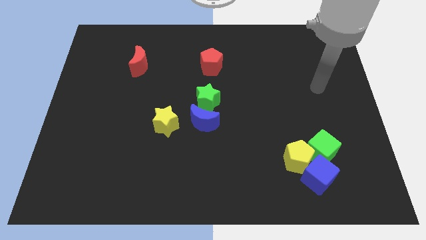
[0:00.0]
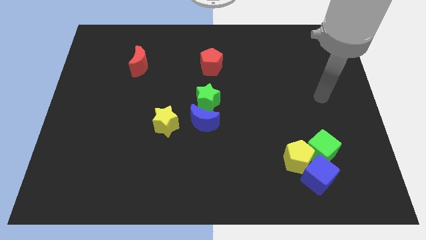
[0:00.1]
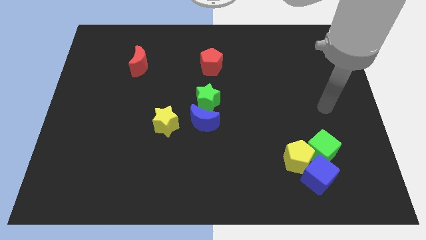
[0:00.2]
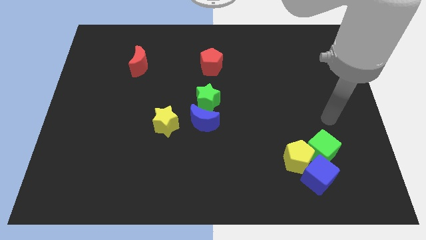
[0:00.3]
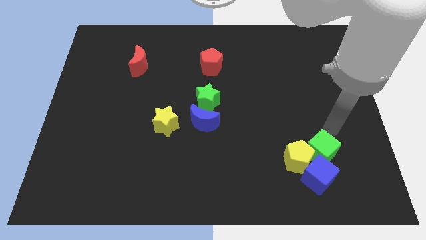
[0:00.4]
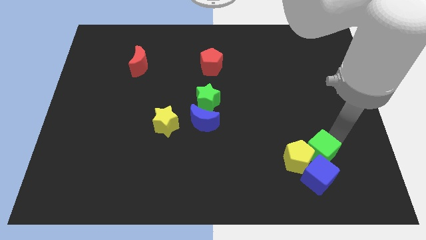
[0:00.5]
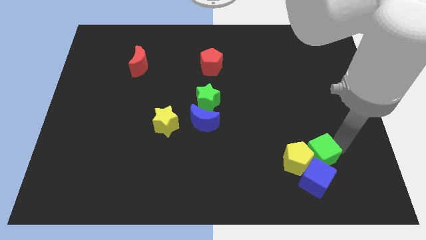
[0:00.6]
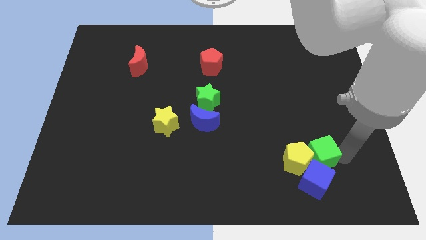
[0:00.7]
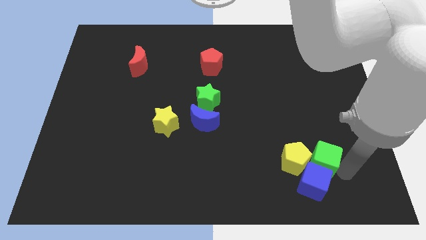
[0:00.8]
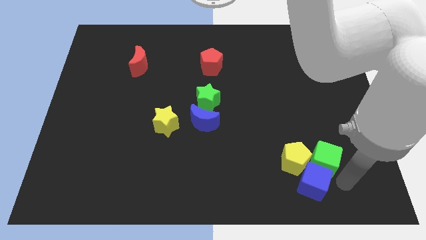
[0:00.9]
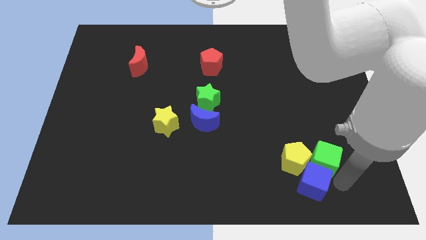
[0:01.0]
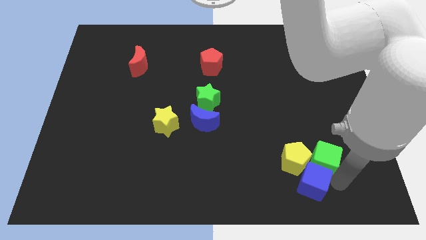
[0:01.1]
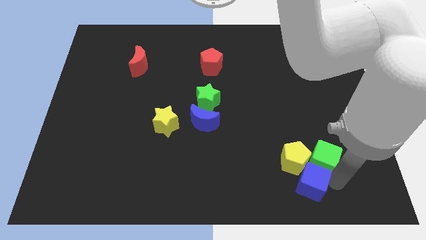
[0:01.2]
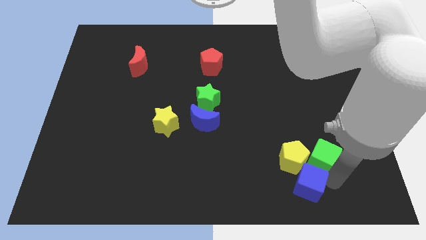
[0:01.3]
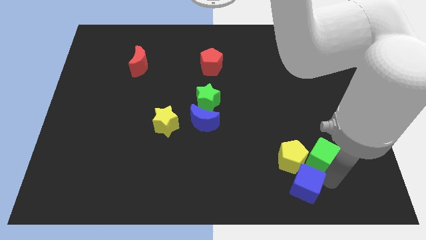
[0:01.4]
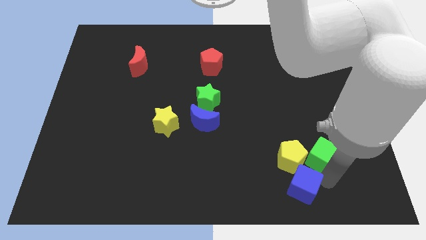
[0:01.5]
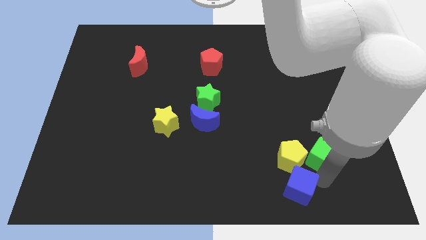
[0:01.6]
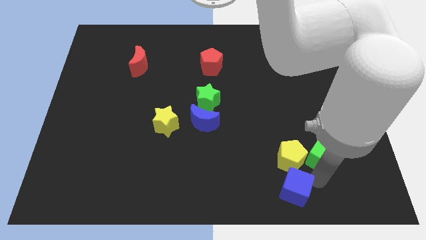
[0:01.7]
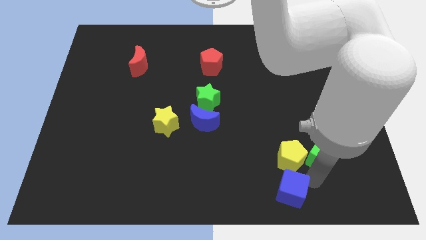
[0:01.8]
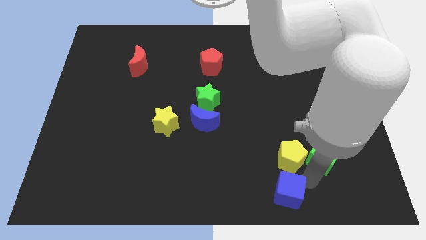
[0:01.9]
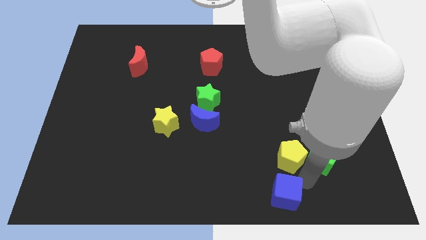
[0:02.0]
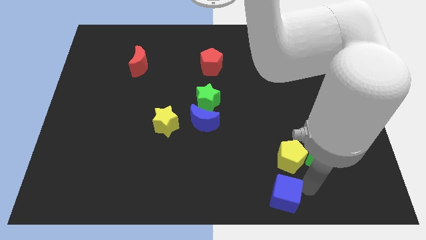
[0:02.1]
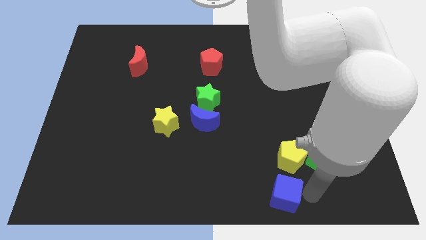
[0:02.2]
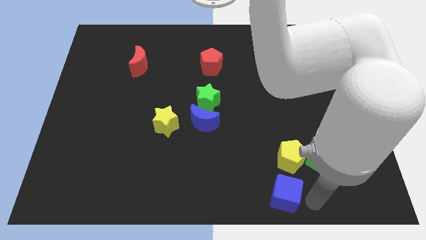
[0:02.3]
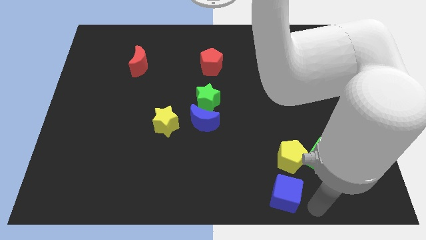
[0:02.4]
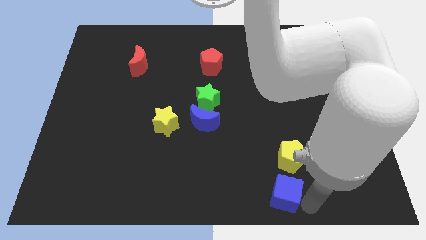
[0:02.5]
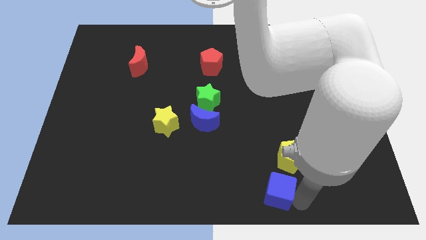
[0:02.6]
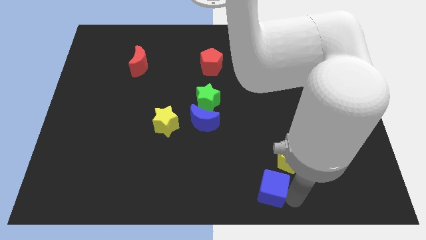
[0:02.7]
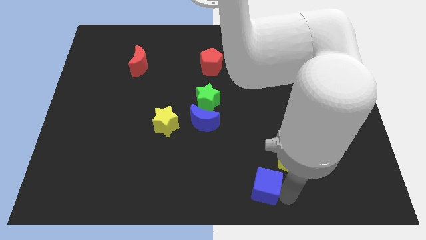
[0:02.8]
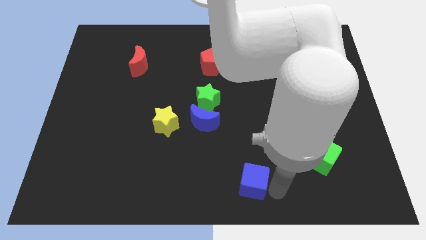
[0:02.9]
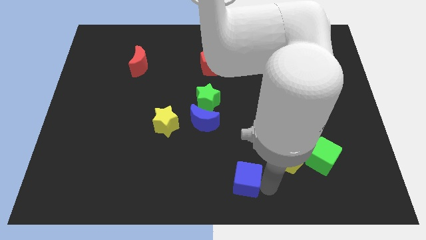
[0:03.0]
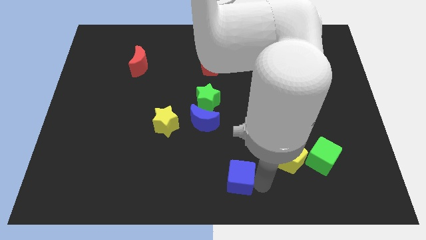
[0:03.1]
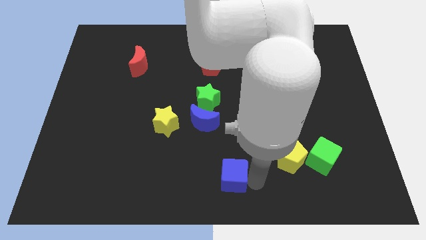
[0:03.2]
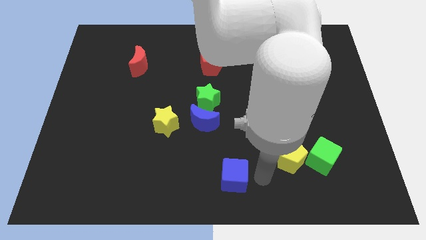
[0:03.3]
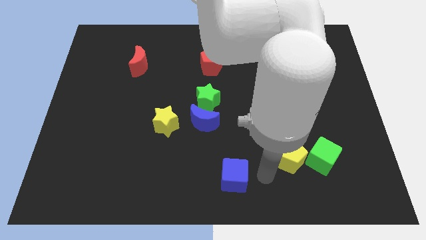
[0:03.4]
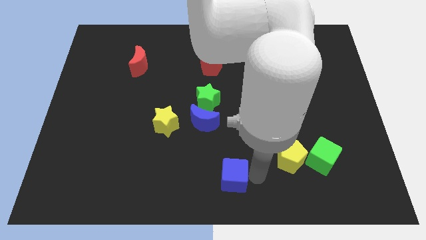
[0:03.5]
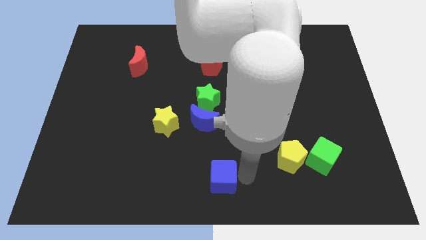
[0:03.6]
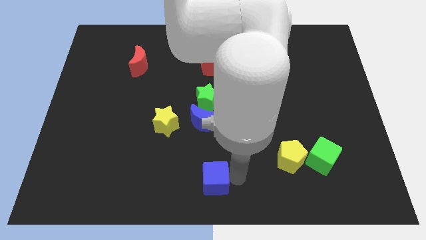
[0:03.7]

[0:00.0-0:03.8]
push the blue cube left

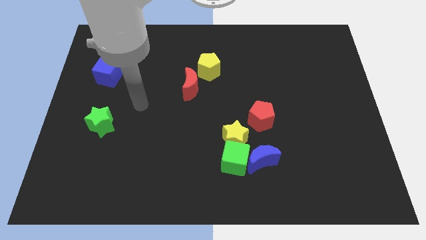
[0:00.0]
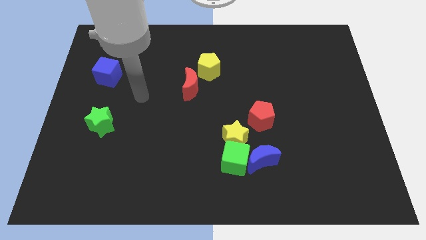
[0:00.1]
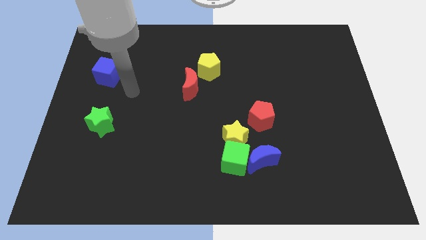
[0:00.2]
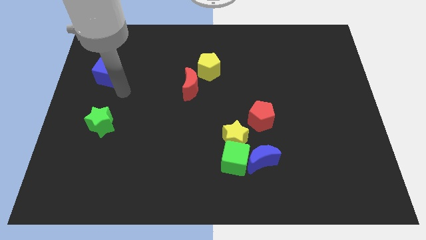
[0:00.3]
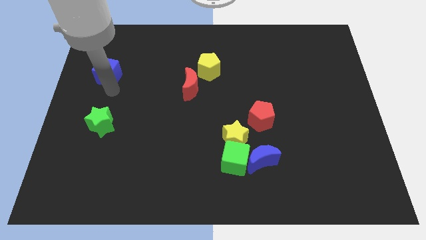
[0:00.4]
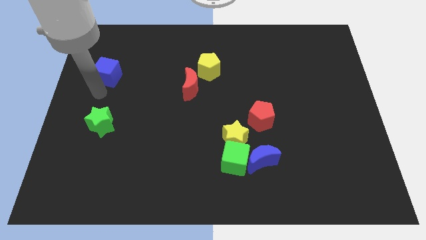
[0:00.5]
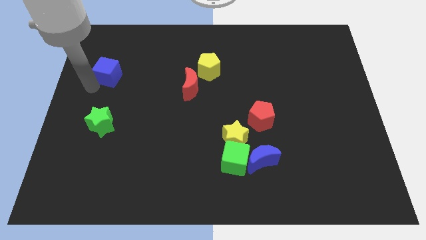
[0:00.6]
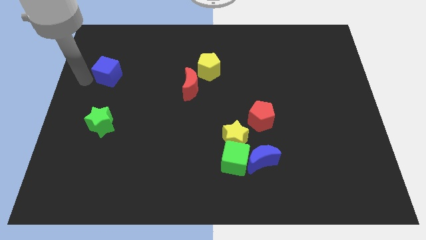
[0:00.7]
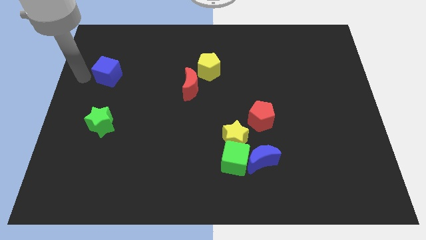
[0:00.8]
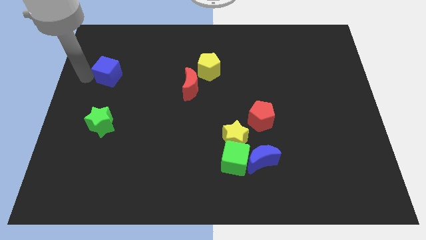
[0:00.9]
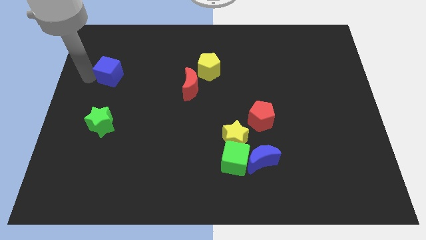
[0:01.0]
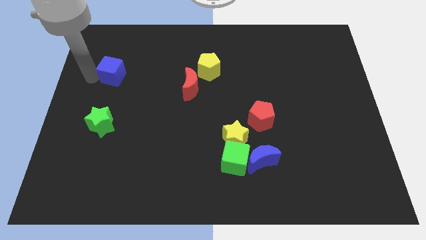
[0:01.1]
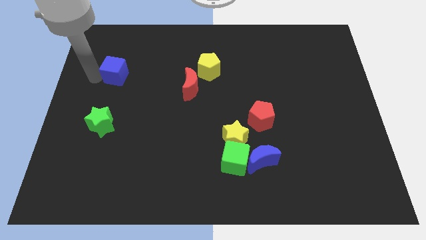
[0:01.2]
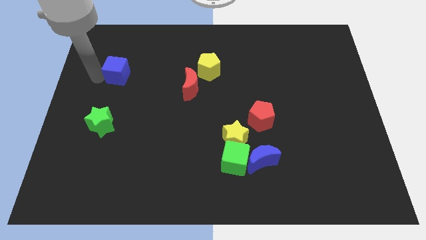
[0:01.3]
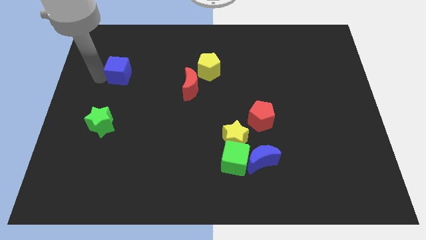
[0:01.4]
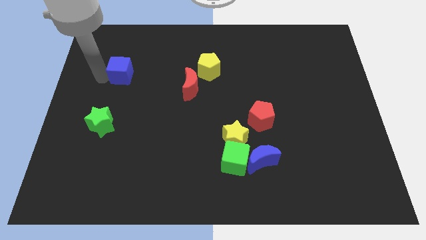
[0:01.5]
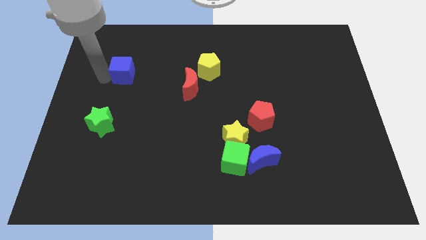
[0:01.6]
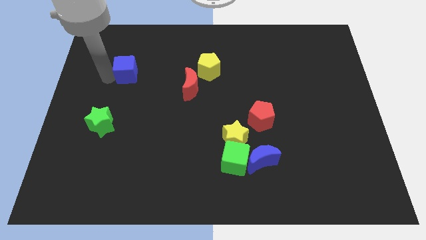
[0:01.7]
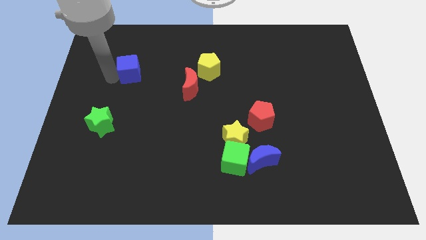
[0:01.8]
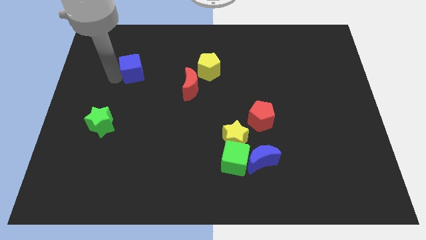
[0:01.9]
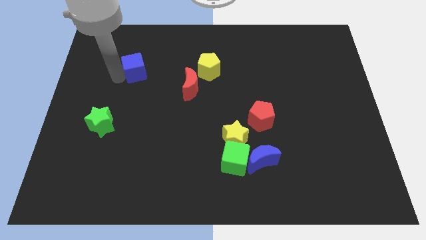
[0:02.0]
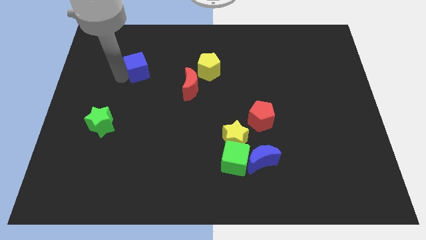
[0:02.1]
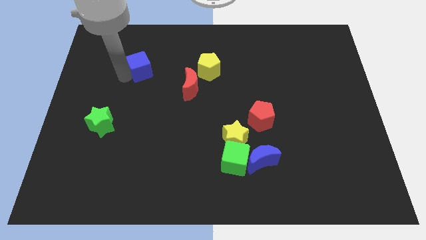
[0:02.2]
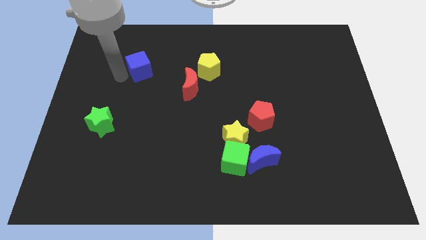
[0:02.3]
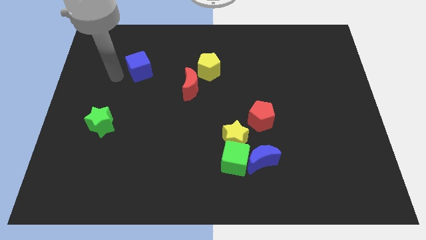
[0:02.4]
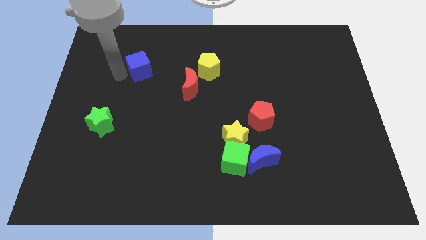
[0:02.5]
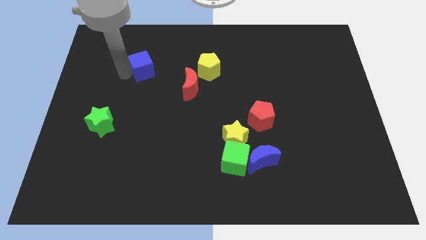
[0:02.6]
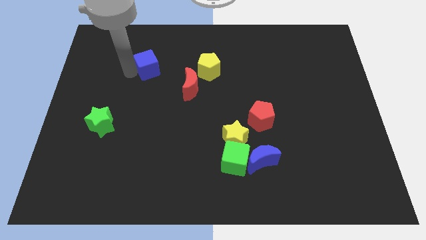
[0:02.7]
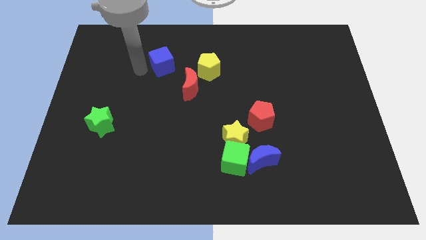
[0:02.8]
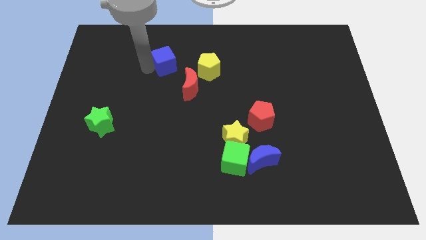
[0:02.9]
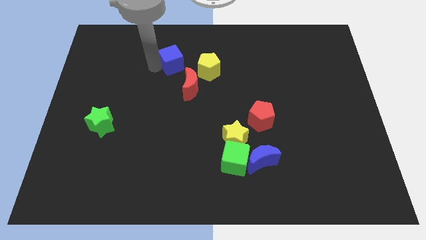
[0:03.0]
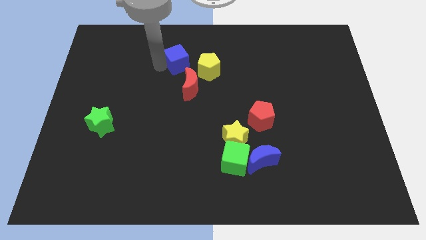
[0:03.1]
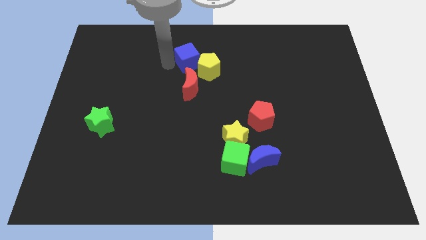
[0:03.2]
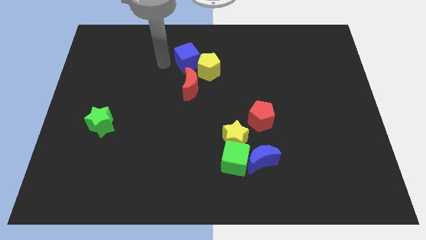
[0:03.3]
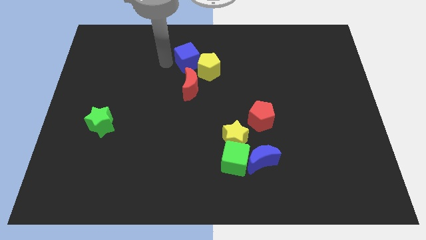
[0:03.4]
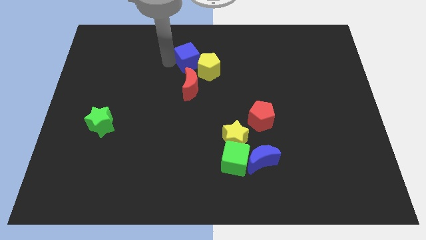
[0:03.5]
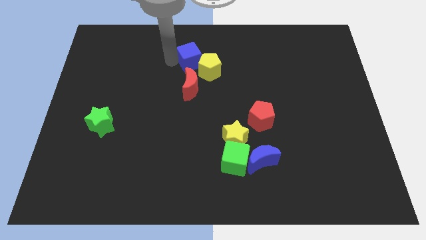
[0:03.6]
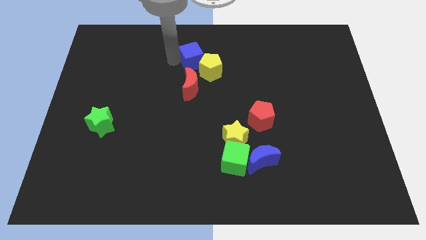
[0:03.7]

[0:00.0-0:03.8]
push the blue cube right

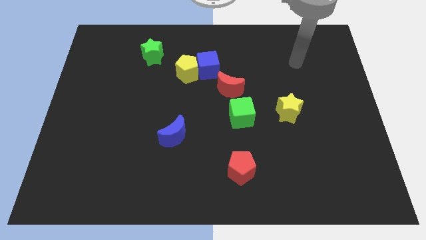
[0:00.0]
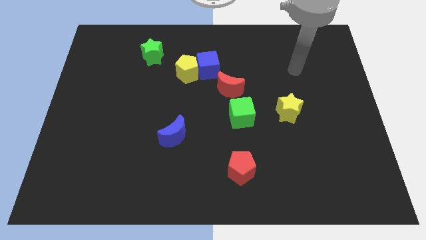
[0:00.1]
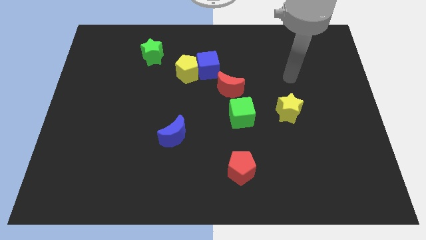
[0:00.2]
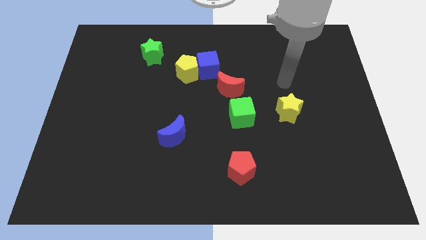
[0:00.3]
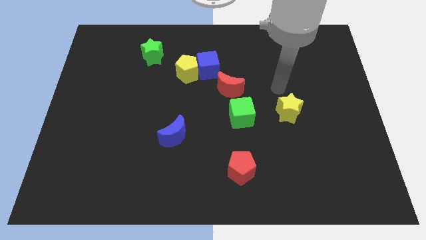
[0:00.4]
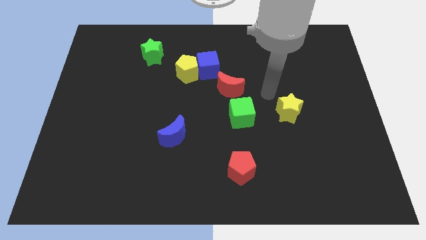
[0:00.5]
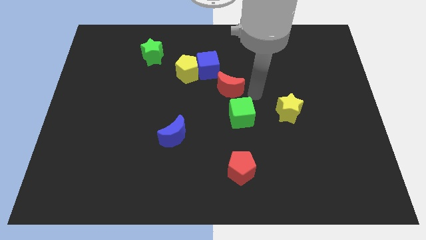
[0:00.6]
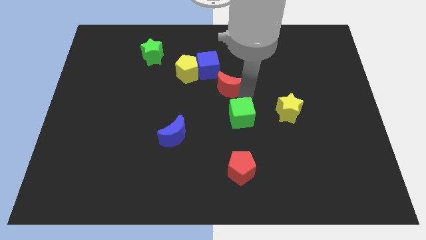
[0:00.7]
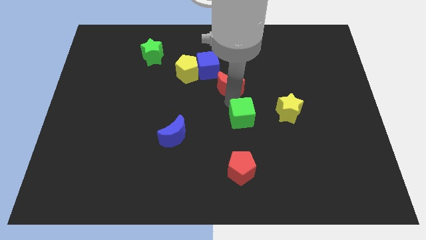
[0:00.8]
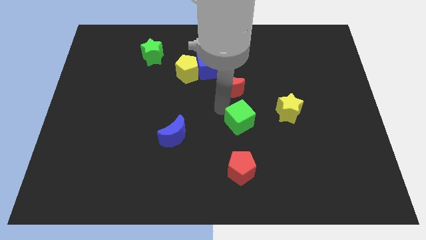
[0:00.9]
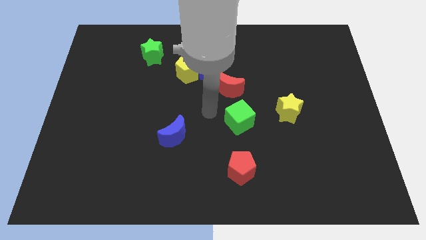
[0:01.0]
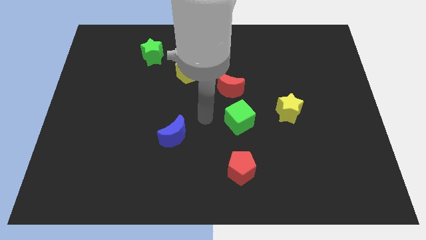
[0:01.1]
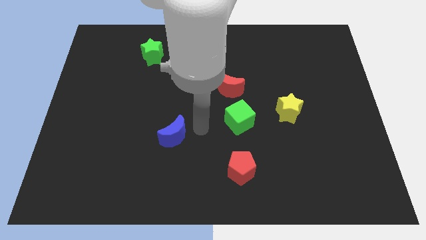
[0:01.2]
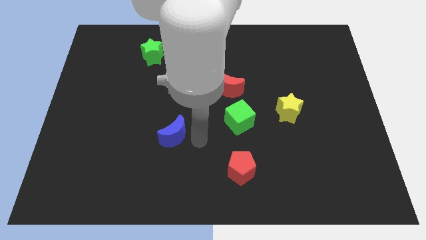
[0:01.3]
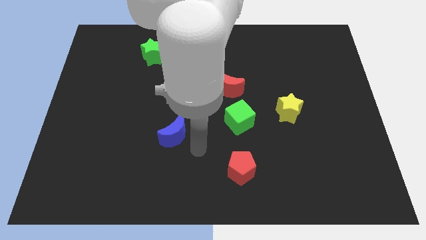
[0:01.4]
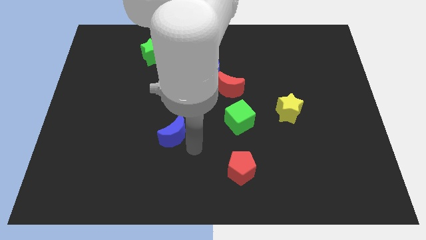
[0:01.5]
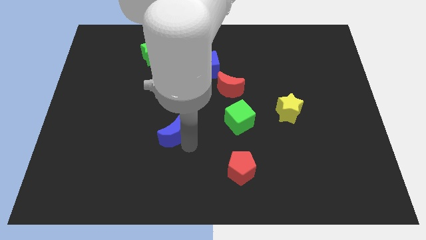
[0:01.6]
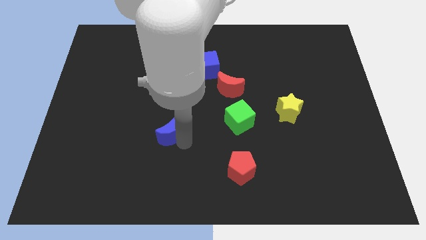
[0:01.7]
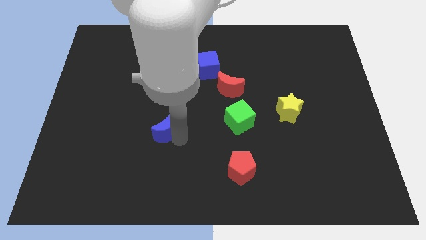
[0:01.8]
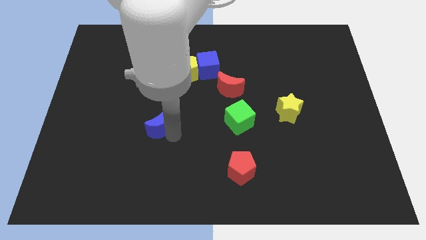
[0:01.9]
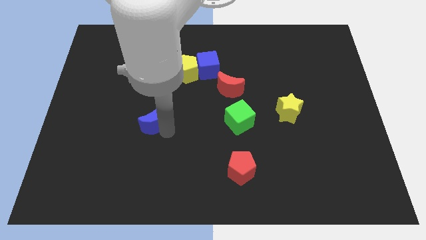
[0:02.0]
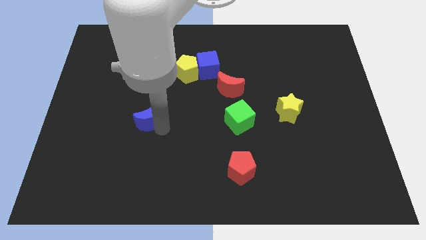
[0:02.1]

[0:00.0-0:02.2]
move the blue moon a bit upwards and to the left
